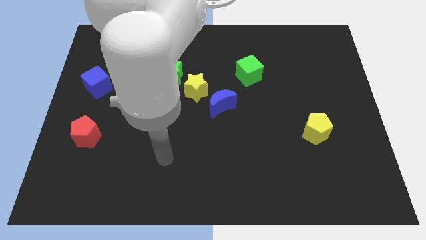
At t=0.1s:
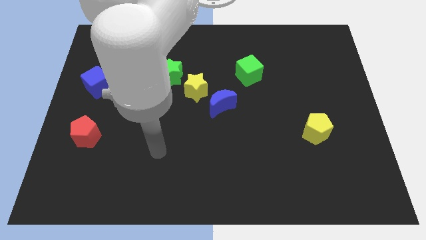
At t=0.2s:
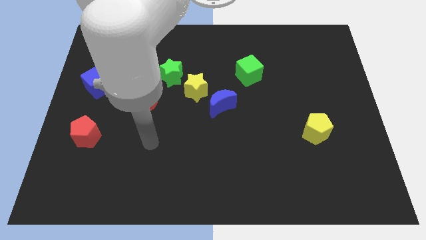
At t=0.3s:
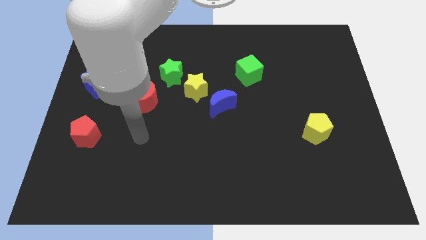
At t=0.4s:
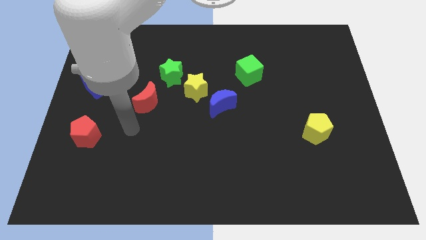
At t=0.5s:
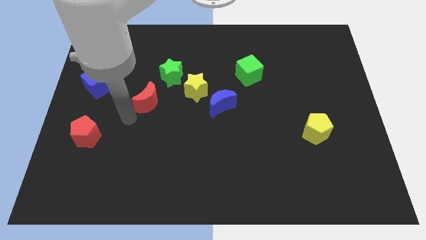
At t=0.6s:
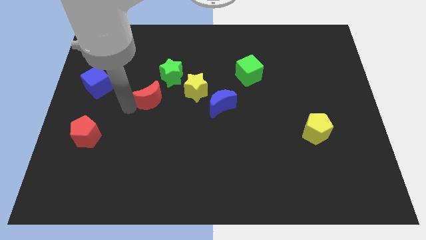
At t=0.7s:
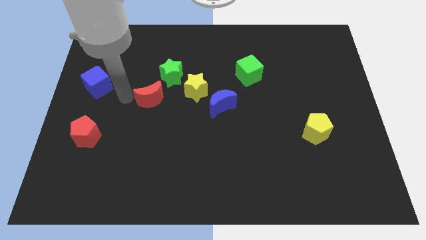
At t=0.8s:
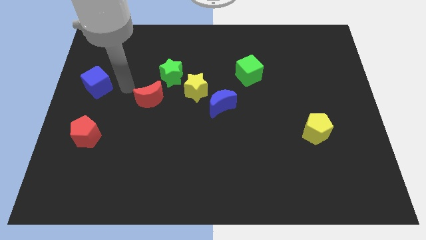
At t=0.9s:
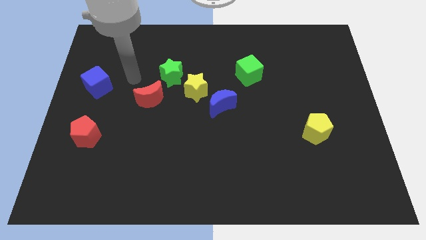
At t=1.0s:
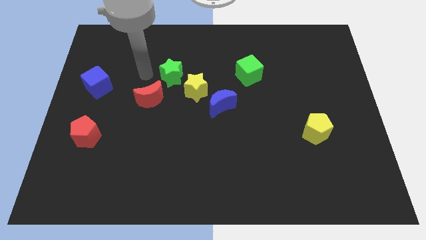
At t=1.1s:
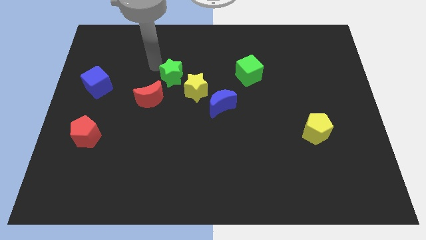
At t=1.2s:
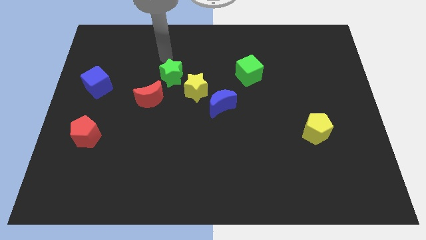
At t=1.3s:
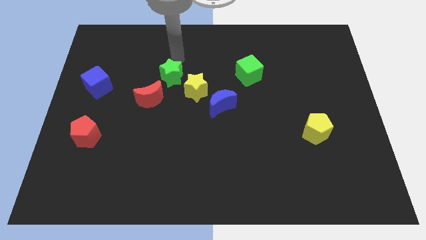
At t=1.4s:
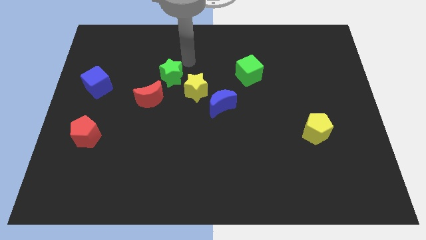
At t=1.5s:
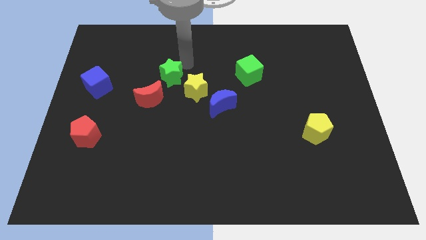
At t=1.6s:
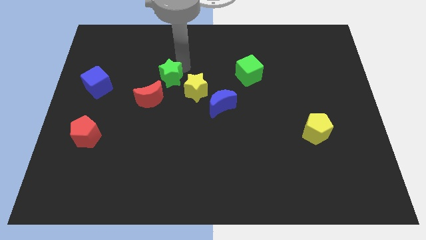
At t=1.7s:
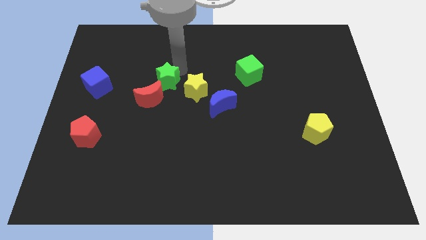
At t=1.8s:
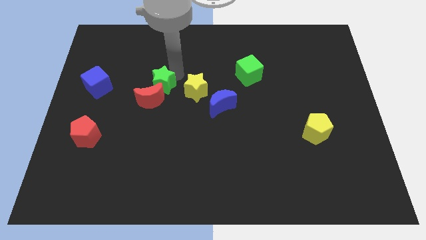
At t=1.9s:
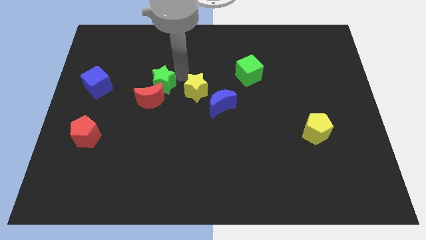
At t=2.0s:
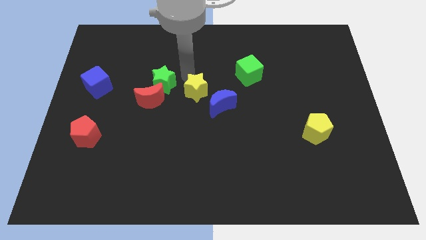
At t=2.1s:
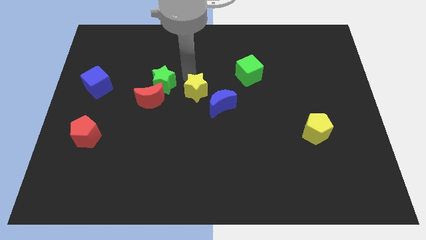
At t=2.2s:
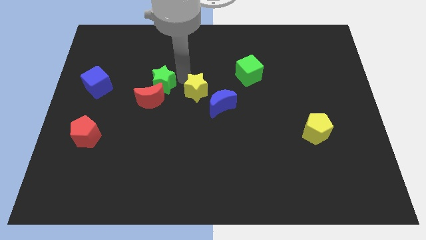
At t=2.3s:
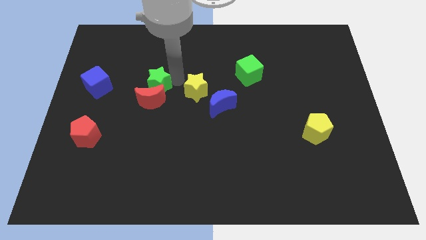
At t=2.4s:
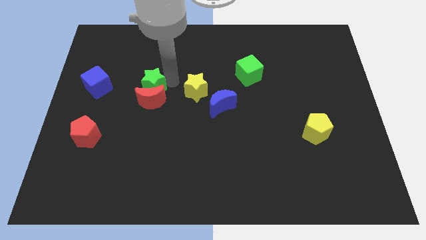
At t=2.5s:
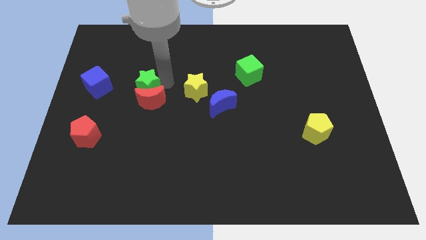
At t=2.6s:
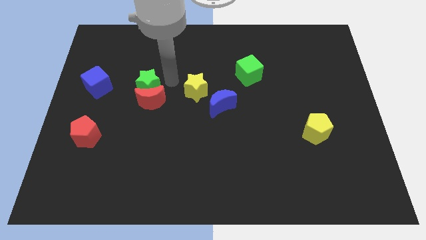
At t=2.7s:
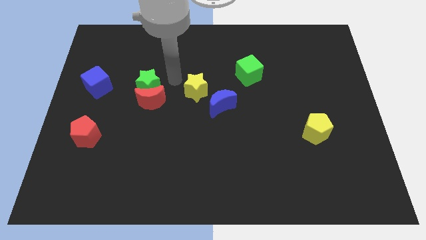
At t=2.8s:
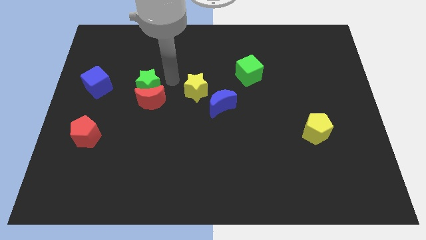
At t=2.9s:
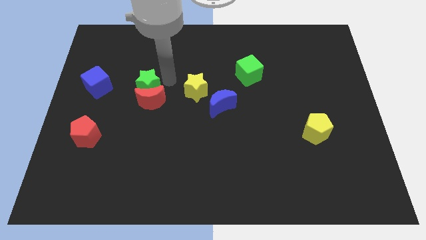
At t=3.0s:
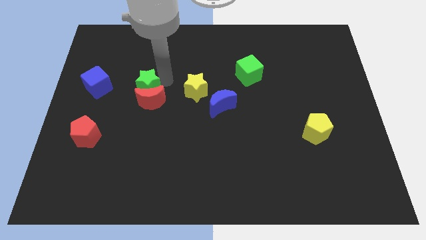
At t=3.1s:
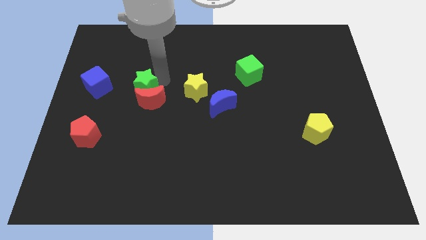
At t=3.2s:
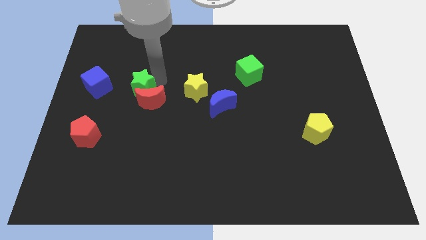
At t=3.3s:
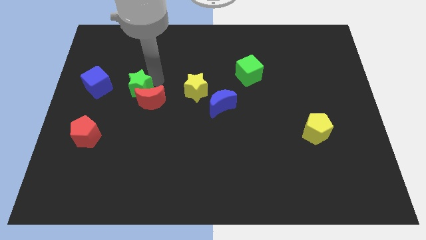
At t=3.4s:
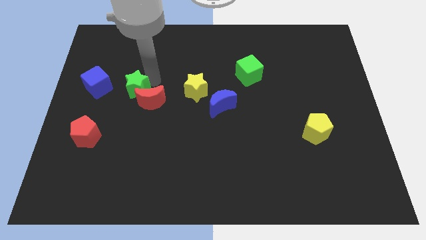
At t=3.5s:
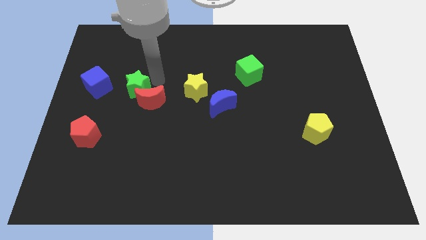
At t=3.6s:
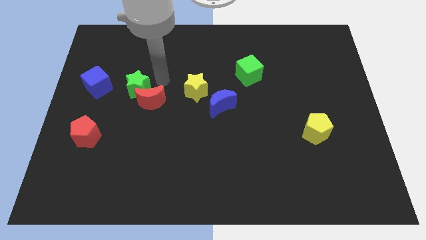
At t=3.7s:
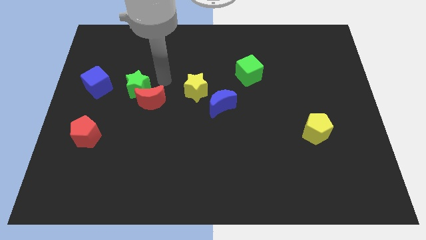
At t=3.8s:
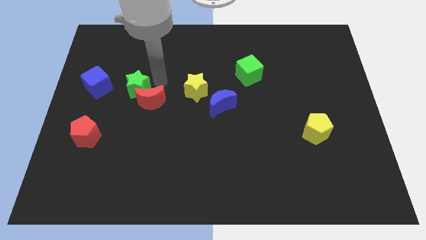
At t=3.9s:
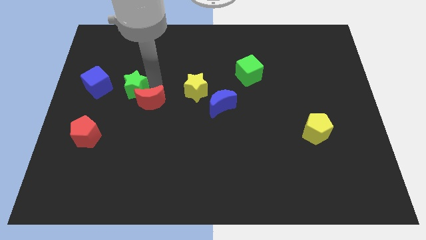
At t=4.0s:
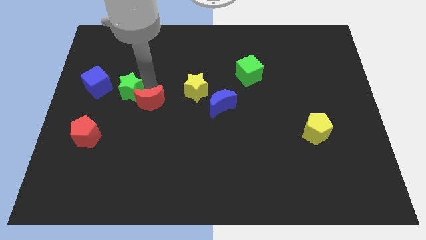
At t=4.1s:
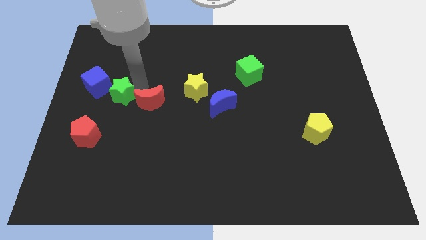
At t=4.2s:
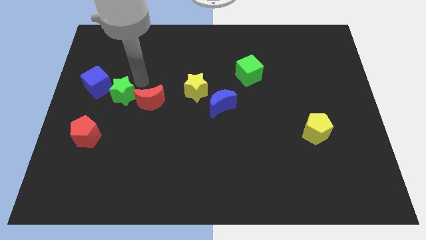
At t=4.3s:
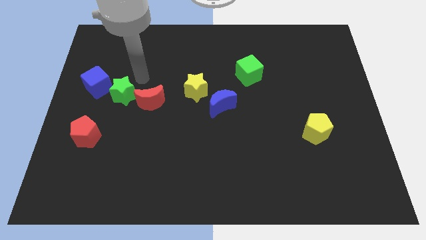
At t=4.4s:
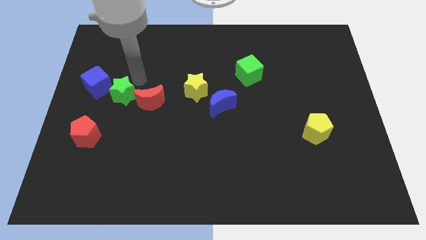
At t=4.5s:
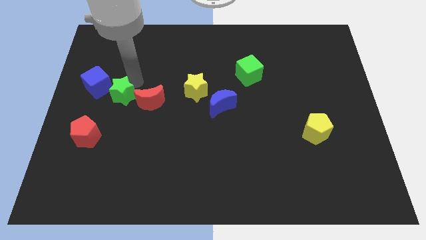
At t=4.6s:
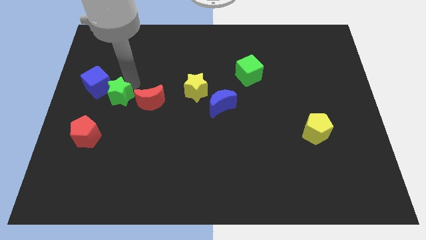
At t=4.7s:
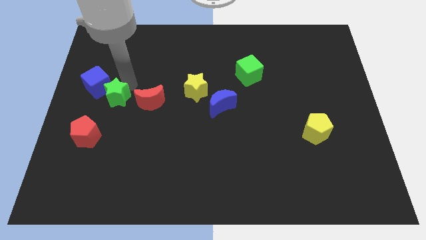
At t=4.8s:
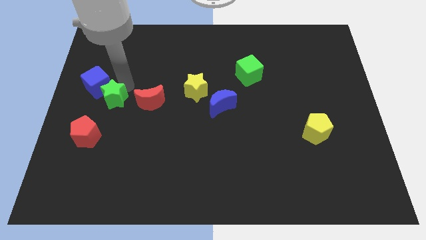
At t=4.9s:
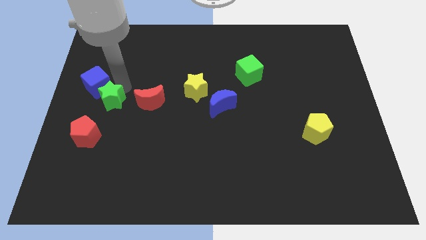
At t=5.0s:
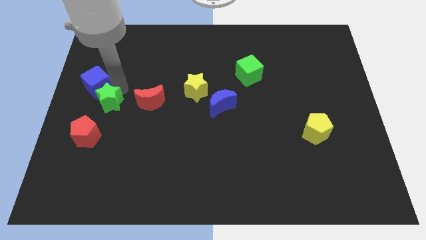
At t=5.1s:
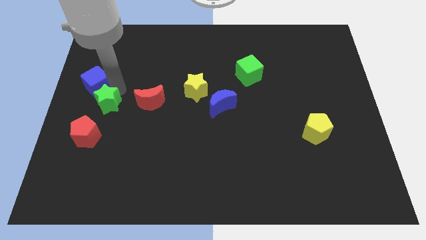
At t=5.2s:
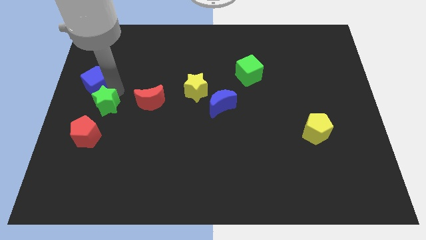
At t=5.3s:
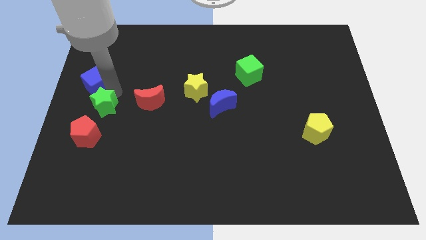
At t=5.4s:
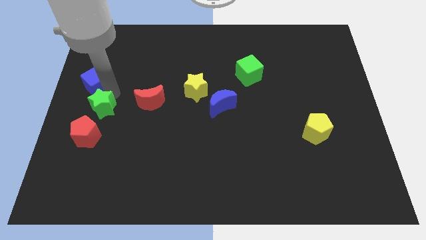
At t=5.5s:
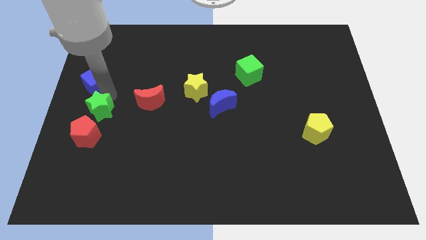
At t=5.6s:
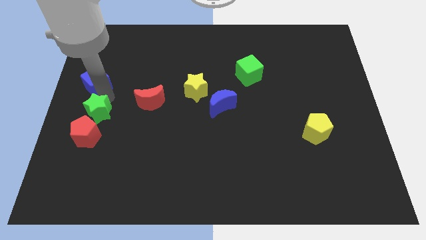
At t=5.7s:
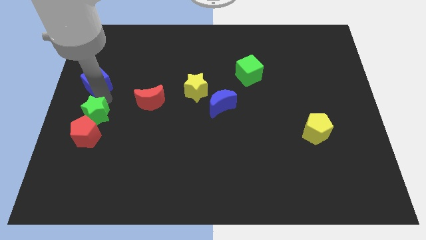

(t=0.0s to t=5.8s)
move the green star towards the red pentagon

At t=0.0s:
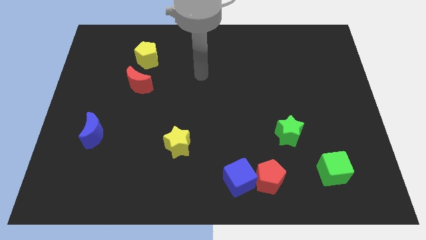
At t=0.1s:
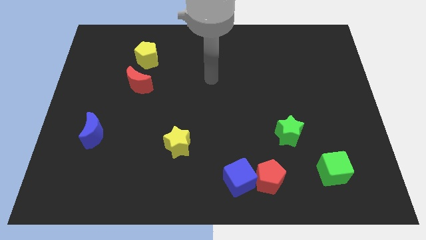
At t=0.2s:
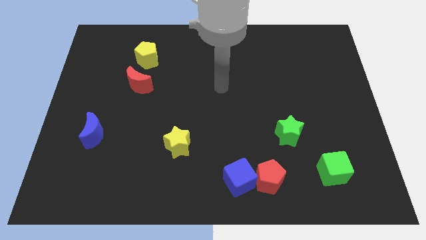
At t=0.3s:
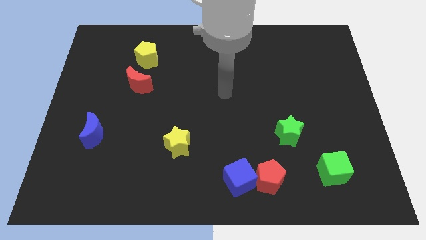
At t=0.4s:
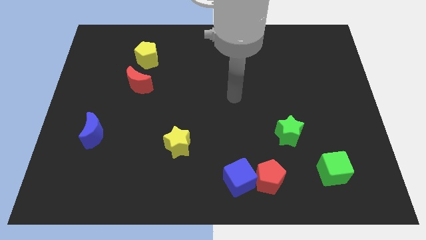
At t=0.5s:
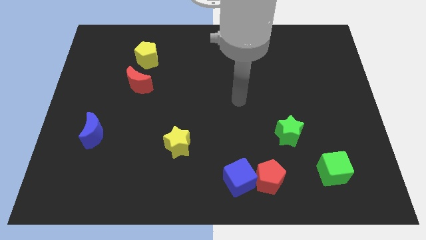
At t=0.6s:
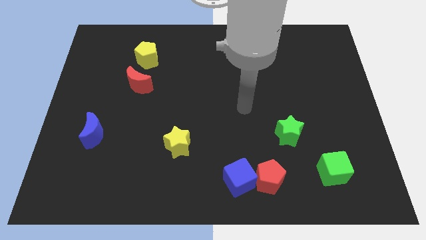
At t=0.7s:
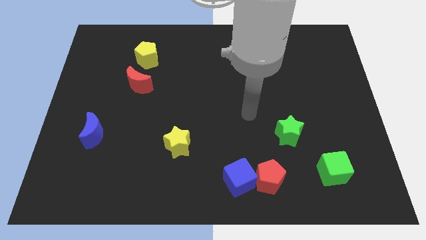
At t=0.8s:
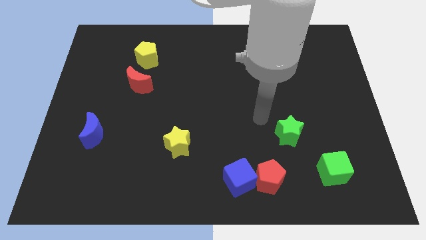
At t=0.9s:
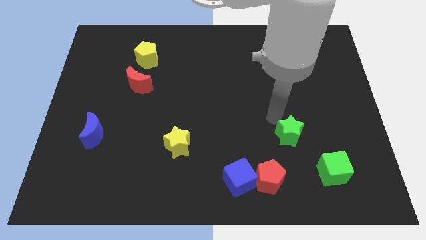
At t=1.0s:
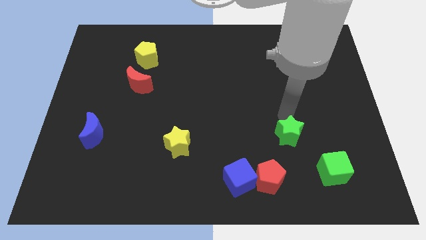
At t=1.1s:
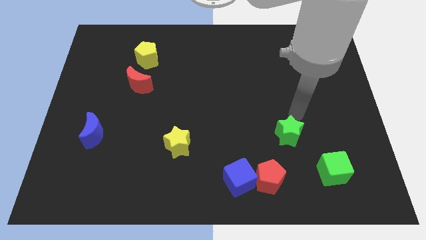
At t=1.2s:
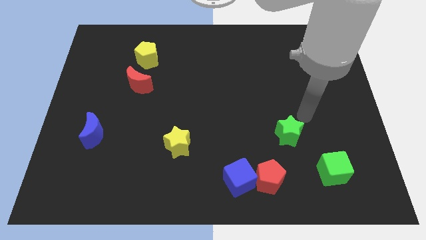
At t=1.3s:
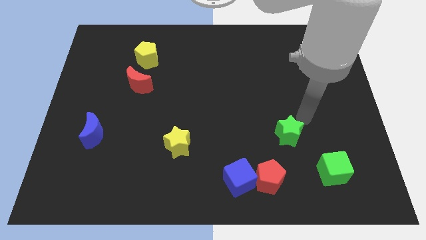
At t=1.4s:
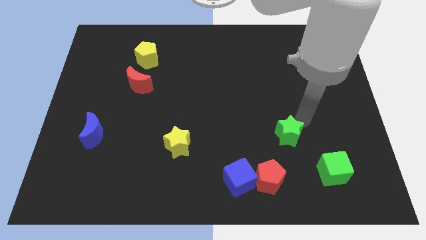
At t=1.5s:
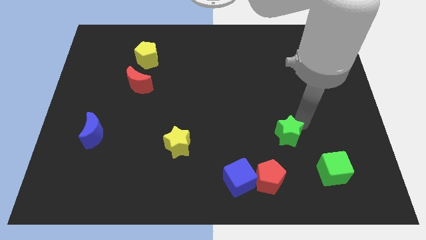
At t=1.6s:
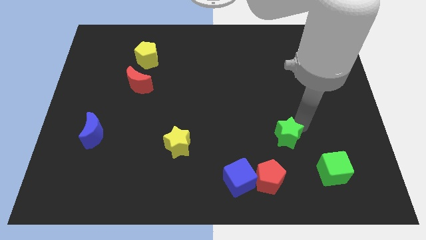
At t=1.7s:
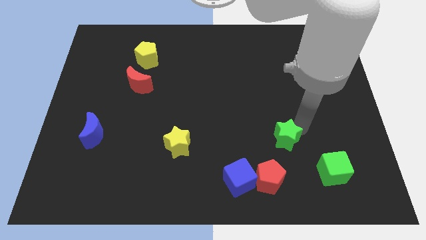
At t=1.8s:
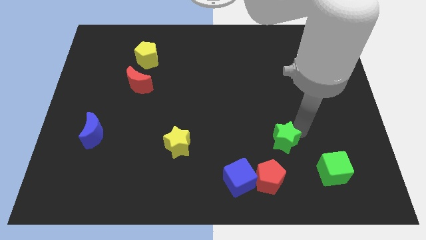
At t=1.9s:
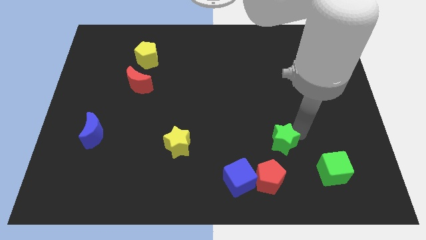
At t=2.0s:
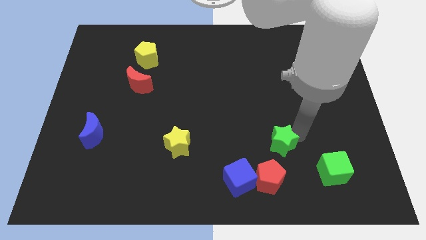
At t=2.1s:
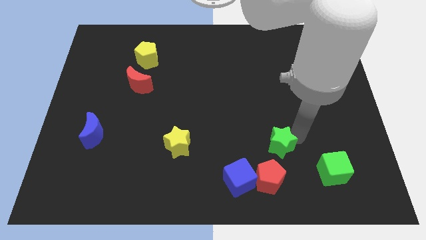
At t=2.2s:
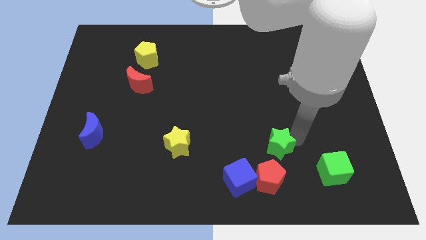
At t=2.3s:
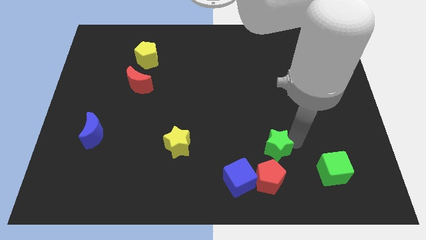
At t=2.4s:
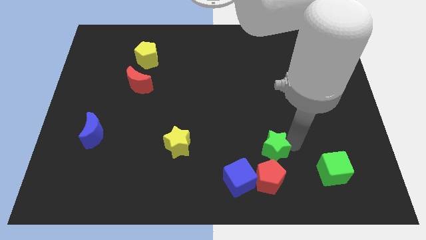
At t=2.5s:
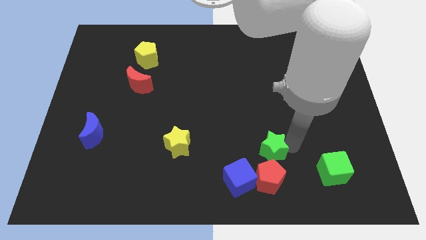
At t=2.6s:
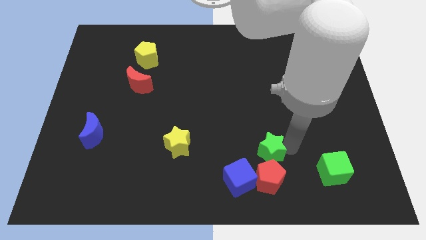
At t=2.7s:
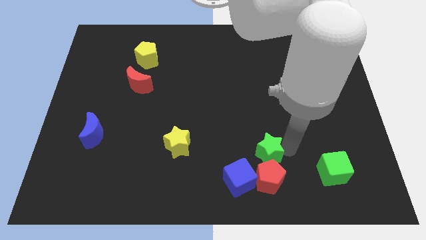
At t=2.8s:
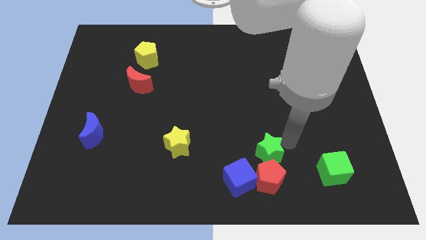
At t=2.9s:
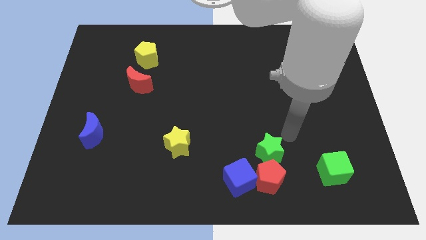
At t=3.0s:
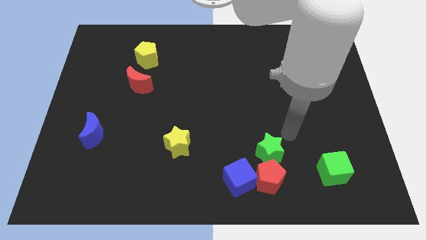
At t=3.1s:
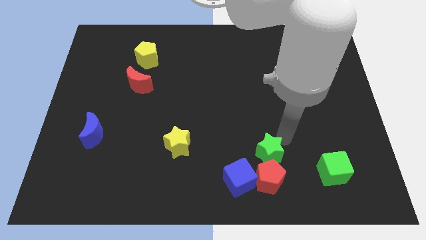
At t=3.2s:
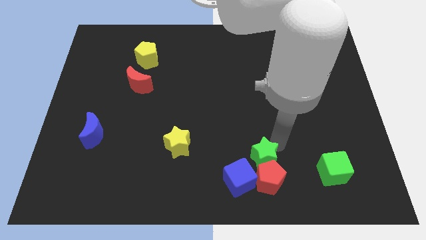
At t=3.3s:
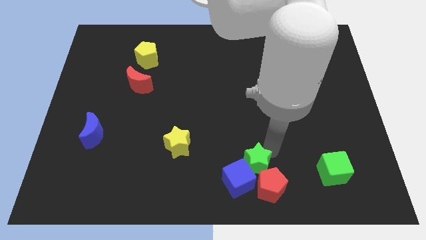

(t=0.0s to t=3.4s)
slide the green star towards the blue cube
